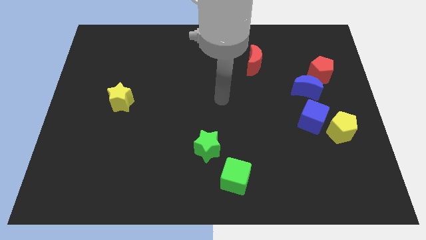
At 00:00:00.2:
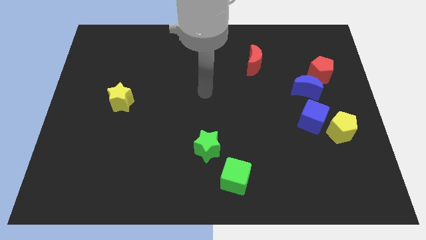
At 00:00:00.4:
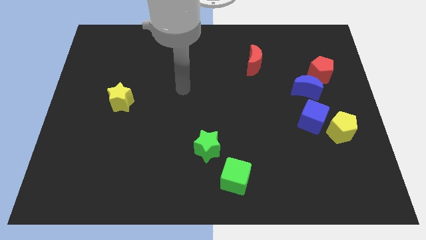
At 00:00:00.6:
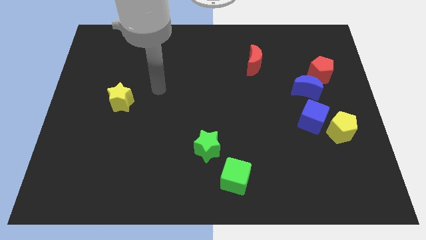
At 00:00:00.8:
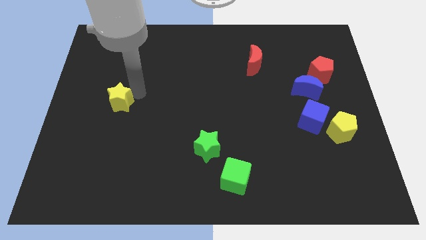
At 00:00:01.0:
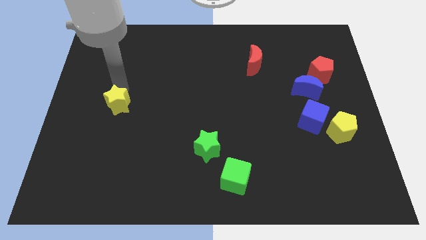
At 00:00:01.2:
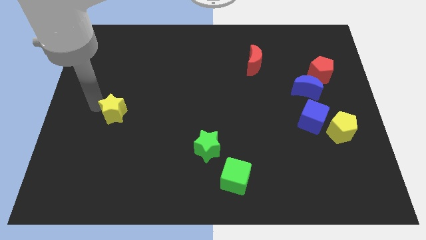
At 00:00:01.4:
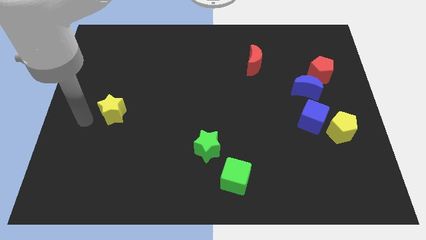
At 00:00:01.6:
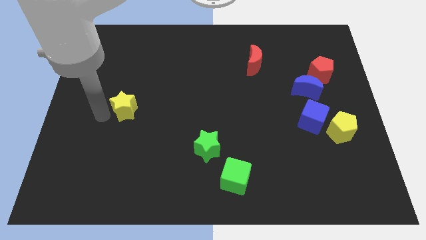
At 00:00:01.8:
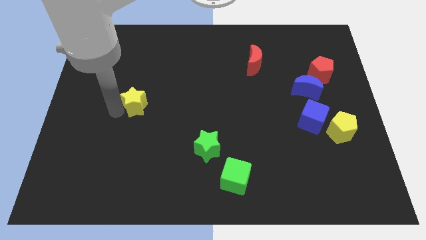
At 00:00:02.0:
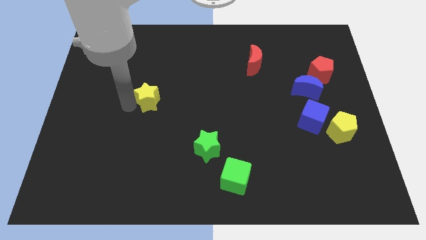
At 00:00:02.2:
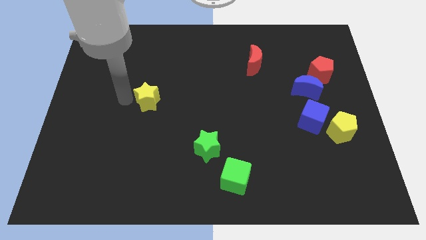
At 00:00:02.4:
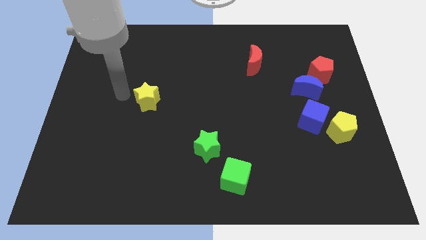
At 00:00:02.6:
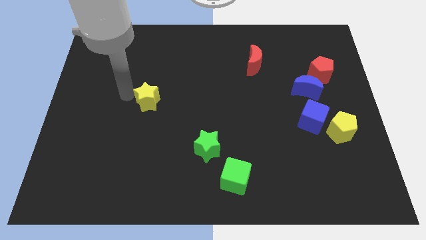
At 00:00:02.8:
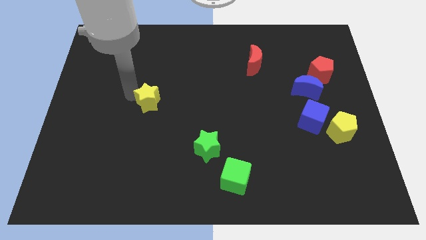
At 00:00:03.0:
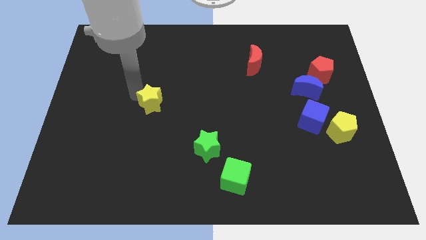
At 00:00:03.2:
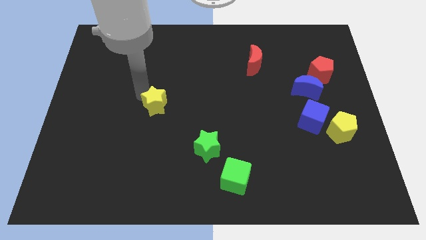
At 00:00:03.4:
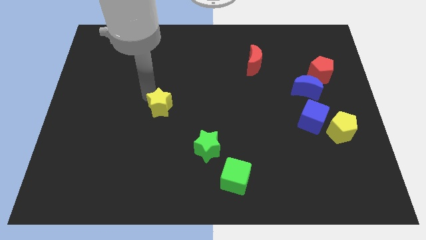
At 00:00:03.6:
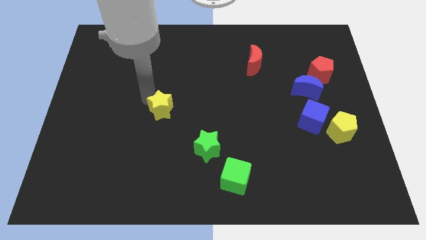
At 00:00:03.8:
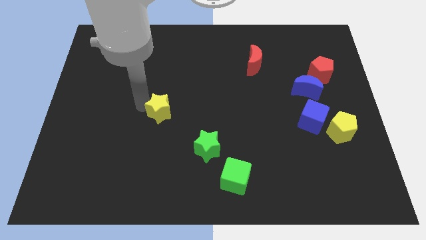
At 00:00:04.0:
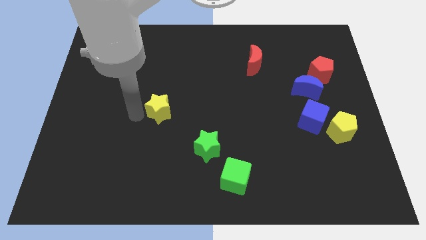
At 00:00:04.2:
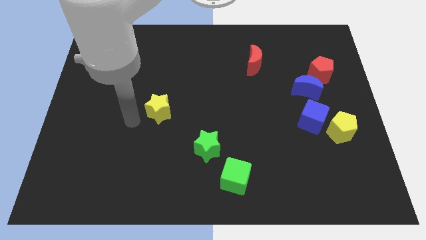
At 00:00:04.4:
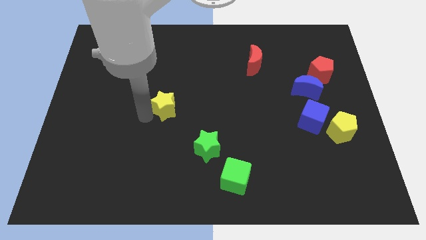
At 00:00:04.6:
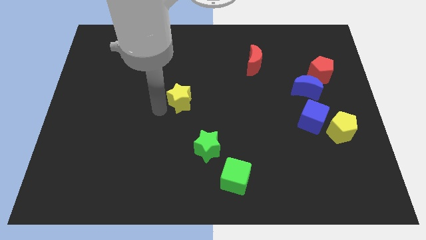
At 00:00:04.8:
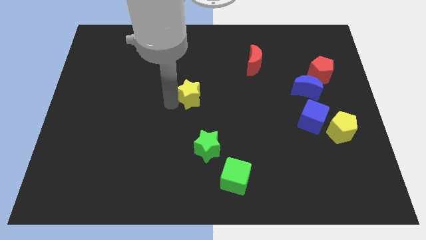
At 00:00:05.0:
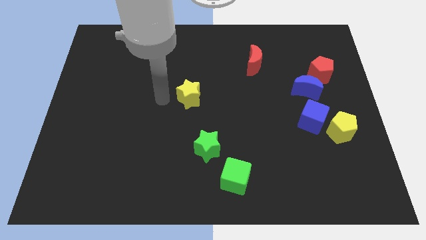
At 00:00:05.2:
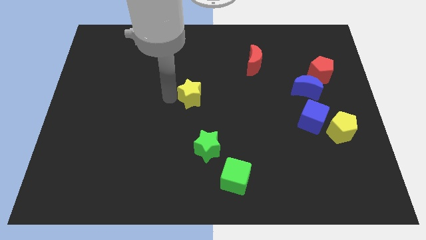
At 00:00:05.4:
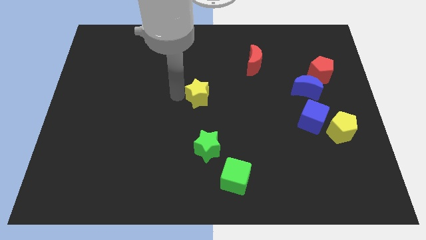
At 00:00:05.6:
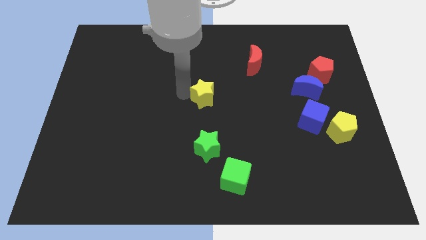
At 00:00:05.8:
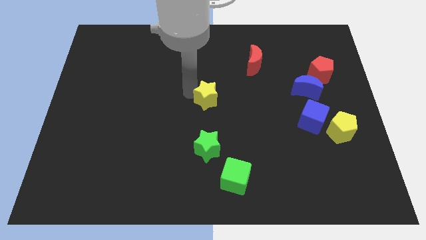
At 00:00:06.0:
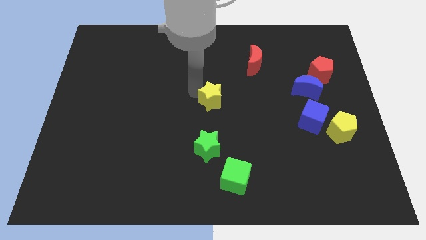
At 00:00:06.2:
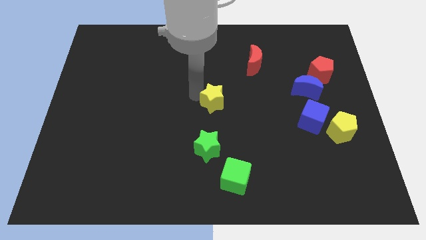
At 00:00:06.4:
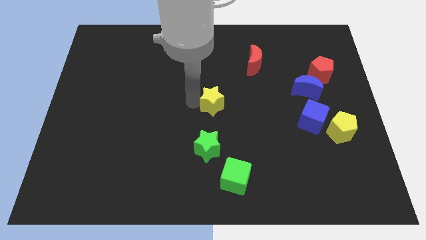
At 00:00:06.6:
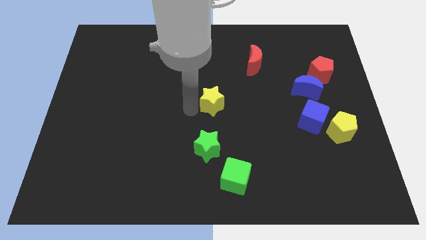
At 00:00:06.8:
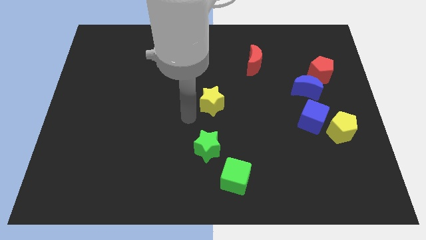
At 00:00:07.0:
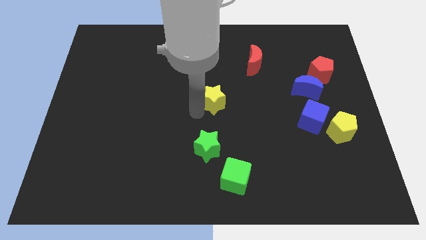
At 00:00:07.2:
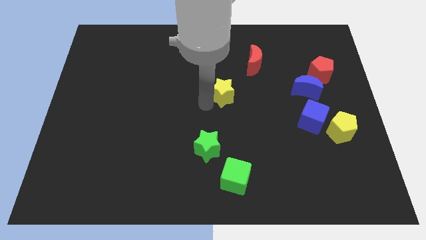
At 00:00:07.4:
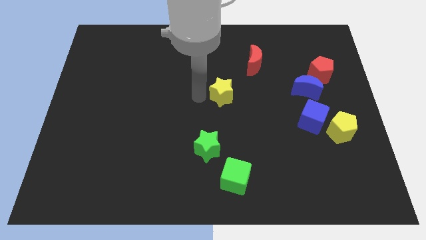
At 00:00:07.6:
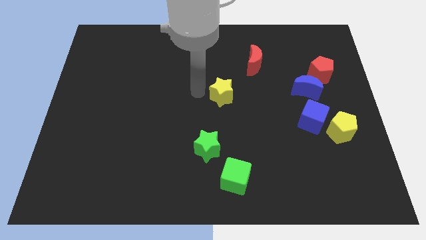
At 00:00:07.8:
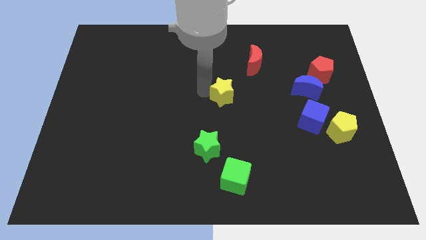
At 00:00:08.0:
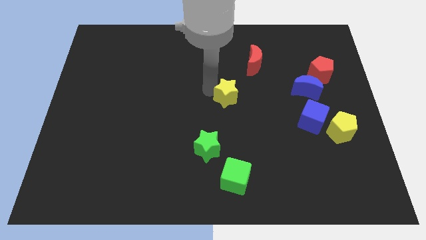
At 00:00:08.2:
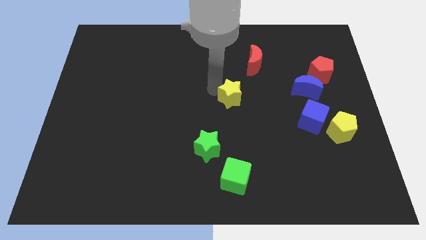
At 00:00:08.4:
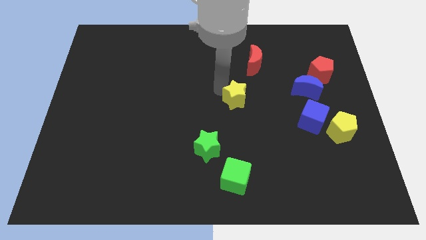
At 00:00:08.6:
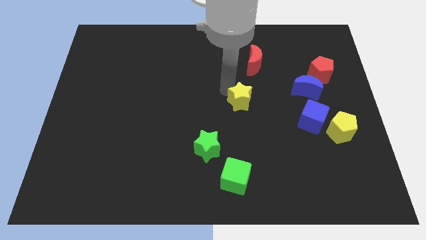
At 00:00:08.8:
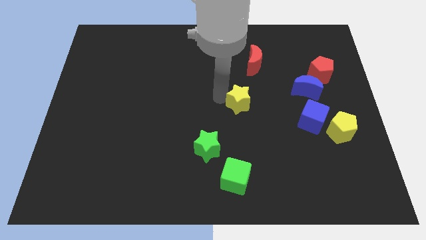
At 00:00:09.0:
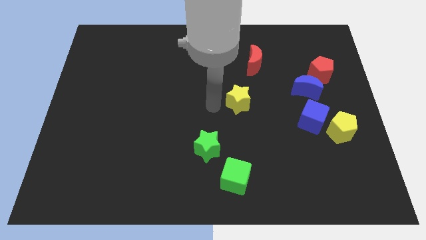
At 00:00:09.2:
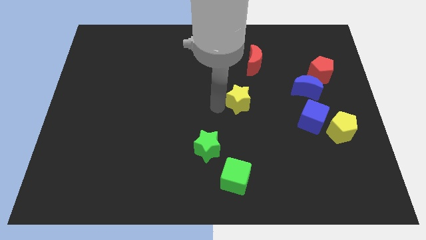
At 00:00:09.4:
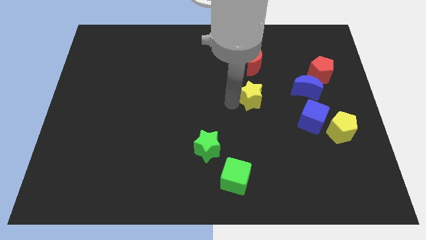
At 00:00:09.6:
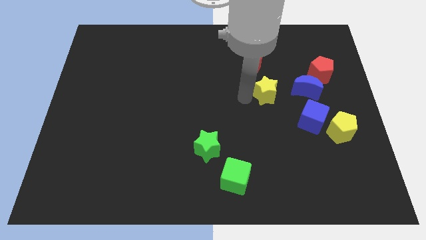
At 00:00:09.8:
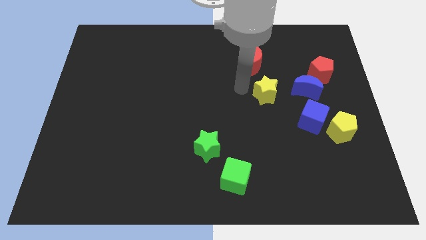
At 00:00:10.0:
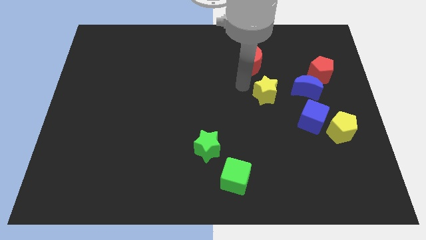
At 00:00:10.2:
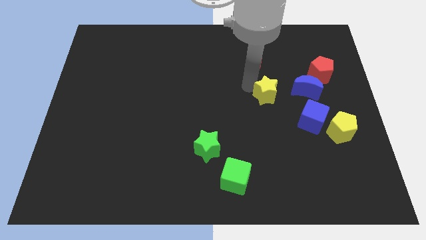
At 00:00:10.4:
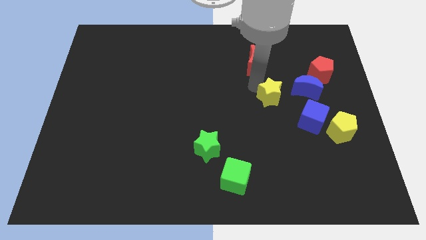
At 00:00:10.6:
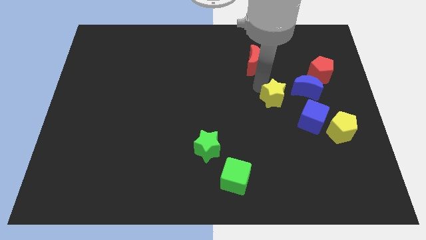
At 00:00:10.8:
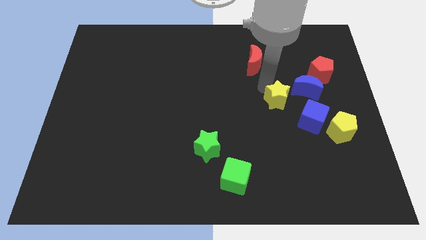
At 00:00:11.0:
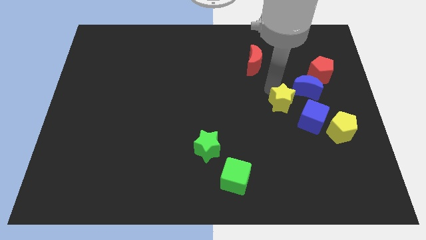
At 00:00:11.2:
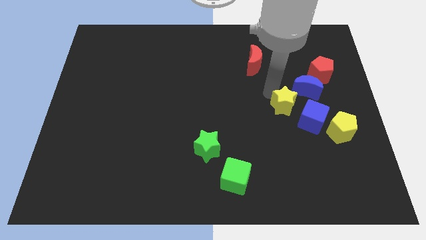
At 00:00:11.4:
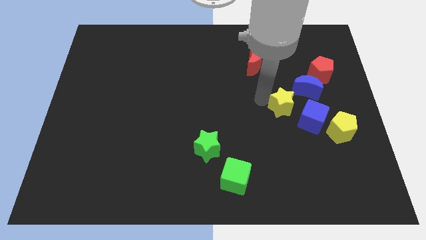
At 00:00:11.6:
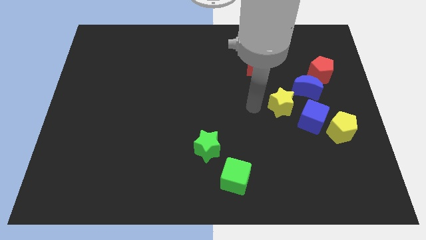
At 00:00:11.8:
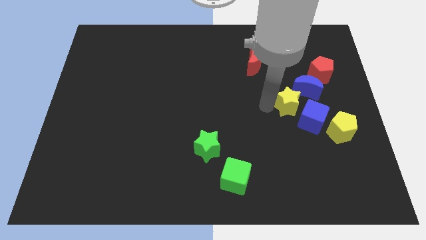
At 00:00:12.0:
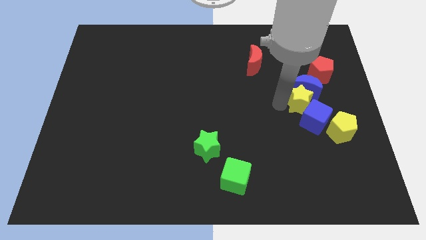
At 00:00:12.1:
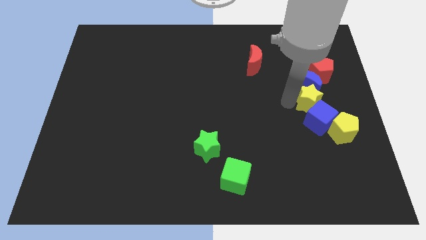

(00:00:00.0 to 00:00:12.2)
push the yellow star diagonally down and to the right of the blue moon

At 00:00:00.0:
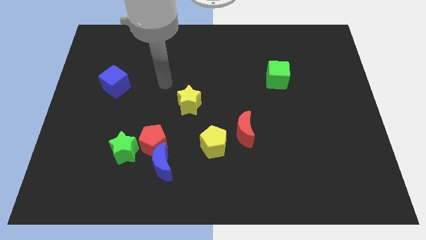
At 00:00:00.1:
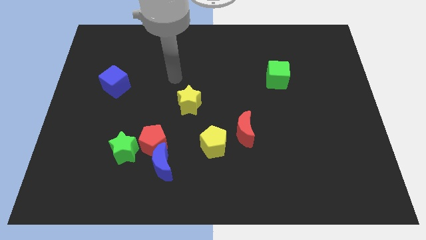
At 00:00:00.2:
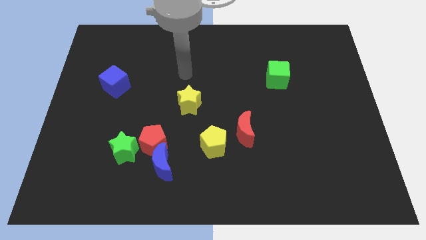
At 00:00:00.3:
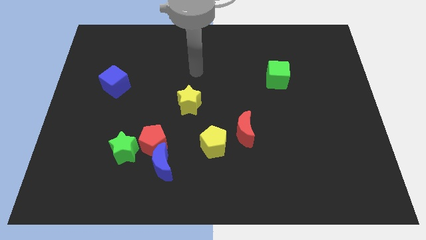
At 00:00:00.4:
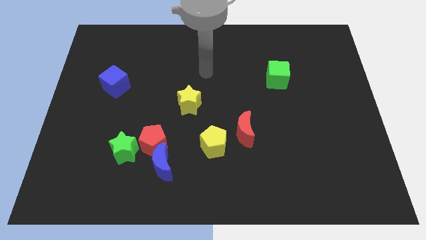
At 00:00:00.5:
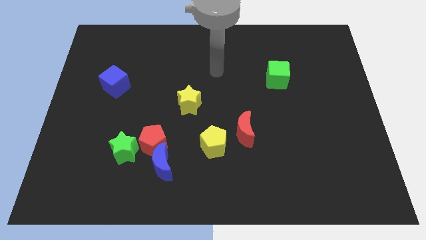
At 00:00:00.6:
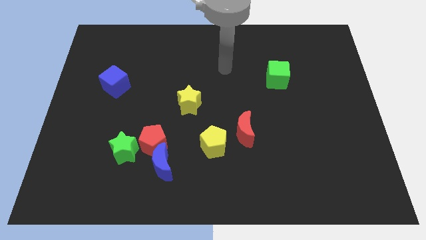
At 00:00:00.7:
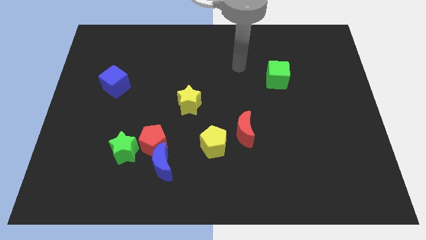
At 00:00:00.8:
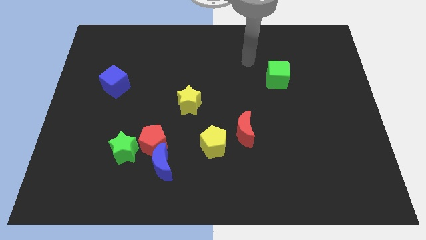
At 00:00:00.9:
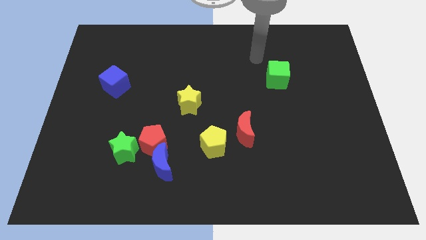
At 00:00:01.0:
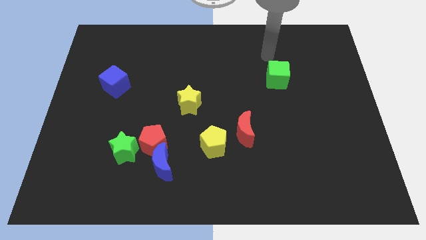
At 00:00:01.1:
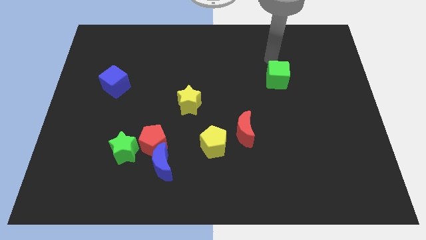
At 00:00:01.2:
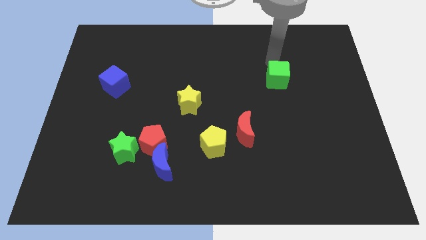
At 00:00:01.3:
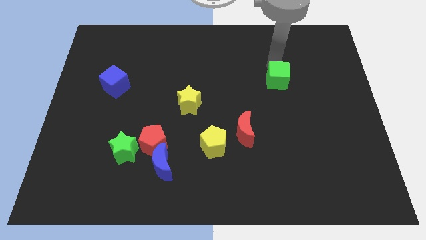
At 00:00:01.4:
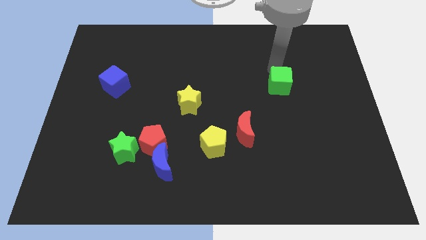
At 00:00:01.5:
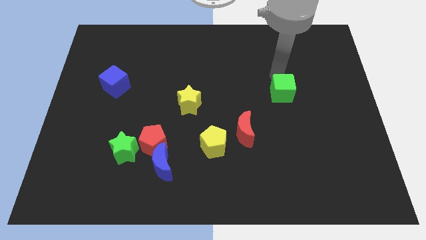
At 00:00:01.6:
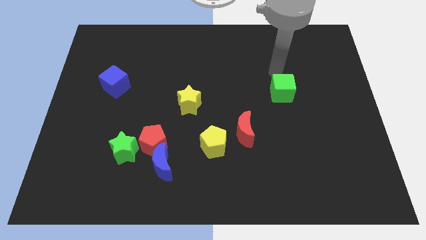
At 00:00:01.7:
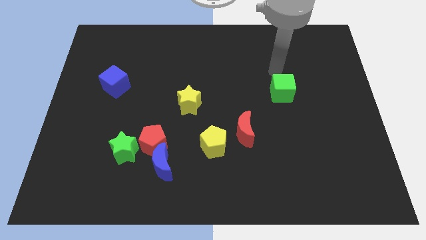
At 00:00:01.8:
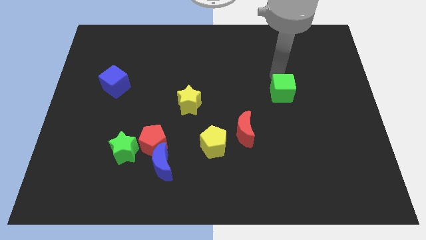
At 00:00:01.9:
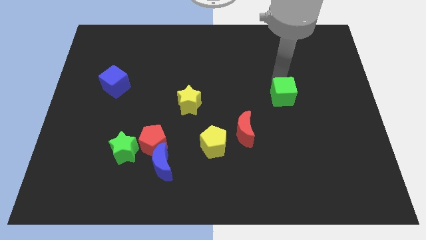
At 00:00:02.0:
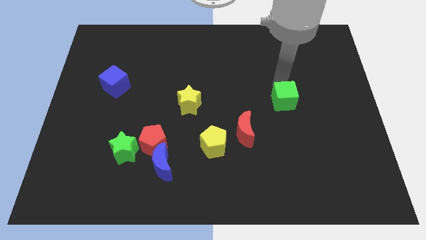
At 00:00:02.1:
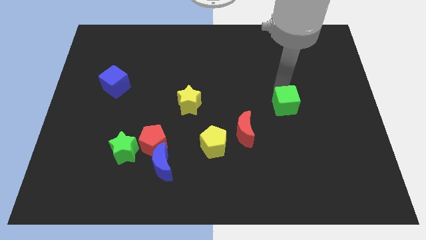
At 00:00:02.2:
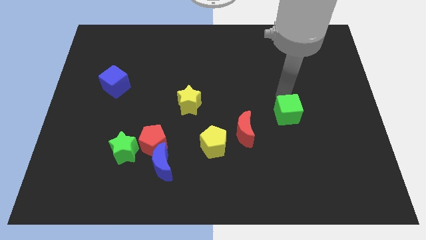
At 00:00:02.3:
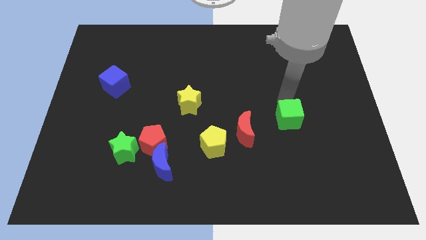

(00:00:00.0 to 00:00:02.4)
slide the green cube to the right side of the red moon
